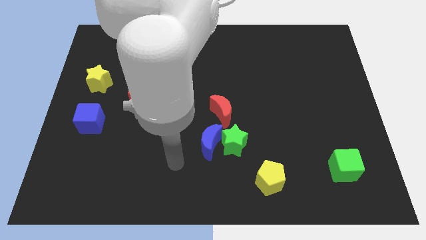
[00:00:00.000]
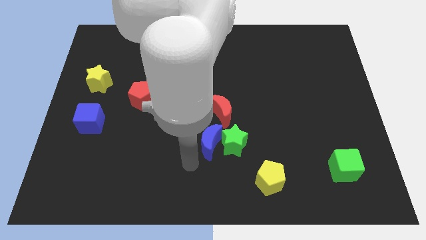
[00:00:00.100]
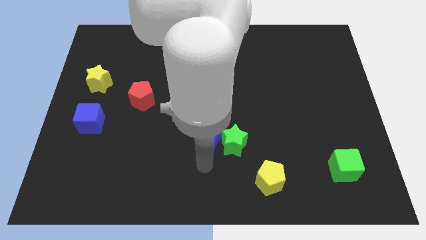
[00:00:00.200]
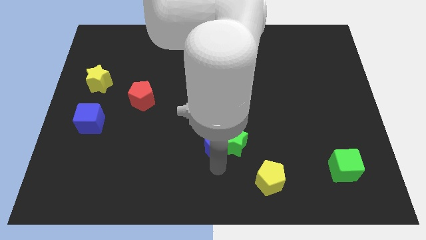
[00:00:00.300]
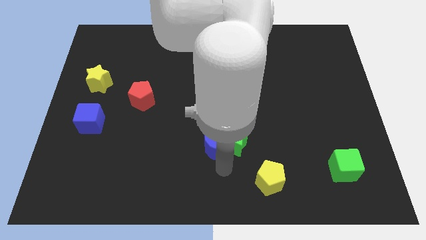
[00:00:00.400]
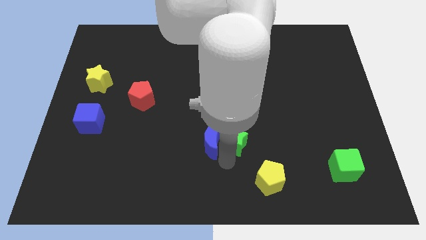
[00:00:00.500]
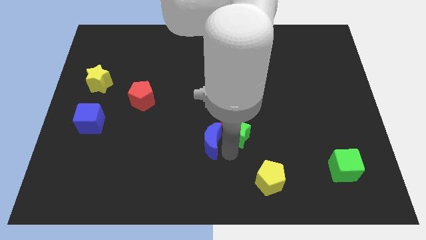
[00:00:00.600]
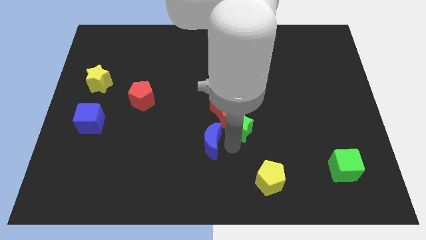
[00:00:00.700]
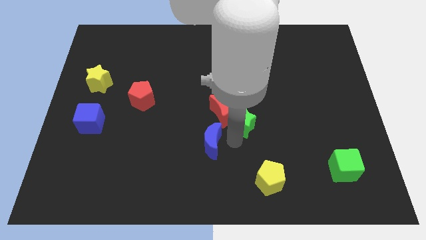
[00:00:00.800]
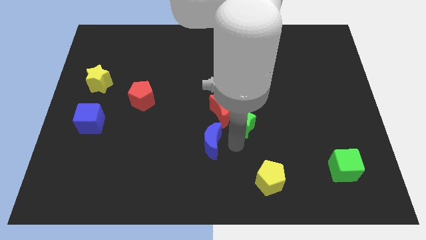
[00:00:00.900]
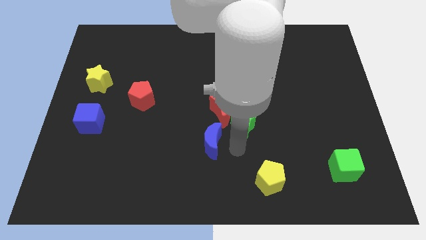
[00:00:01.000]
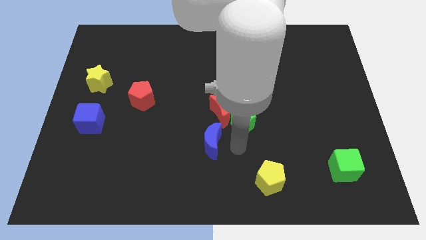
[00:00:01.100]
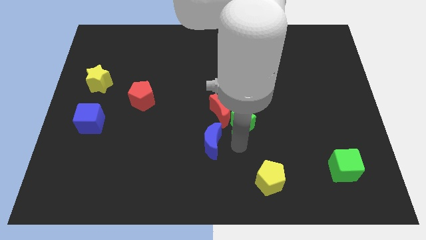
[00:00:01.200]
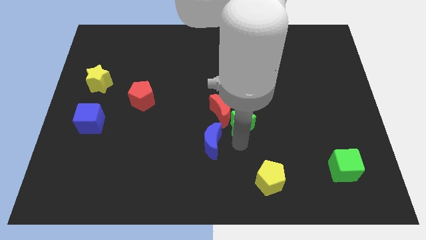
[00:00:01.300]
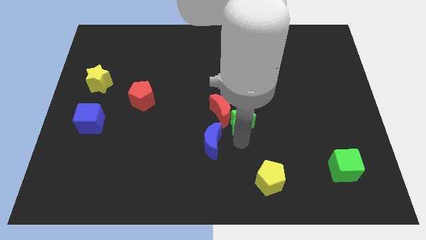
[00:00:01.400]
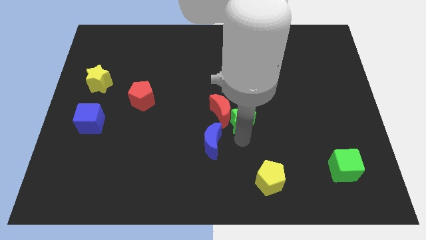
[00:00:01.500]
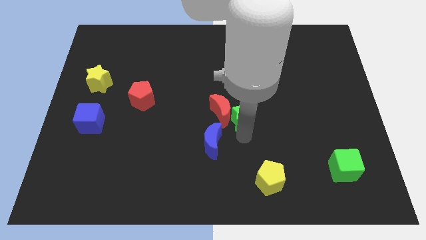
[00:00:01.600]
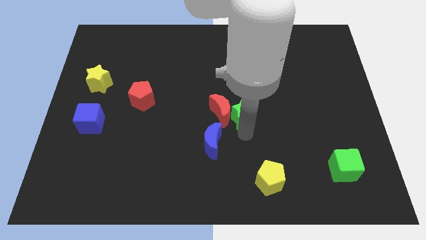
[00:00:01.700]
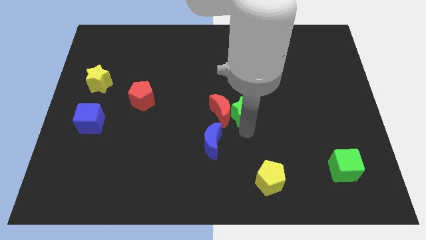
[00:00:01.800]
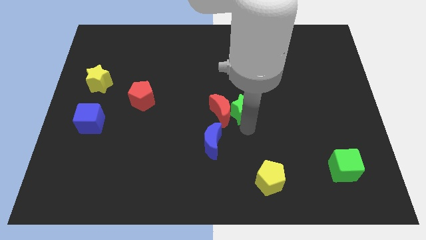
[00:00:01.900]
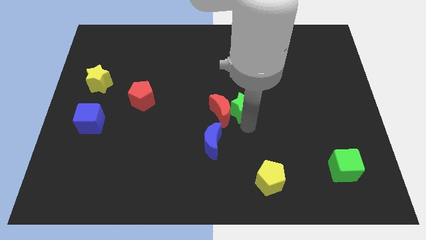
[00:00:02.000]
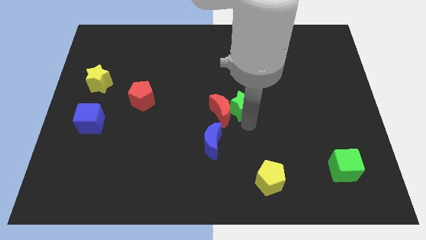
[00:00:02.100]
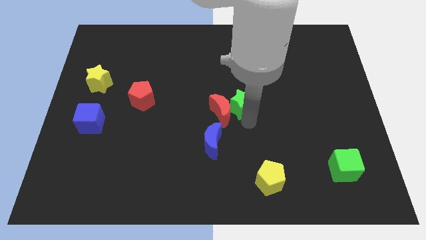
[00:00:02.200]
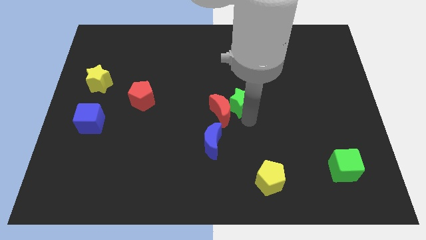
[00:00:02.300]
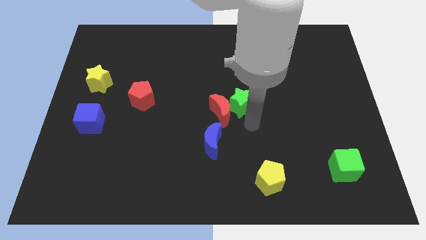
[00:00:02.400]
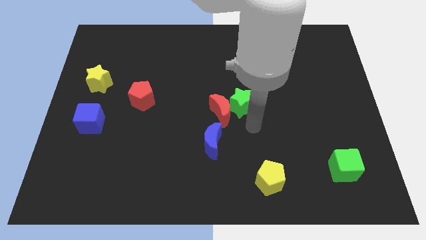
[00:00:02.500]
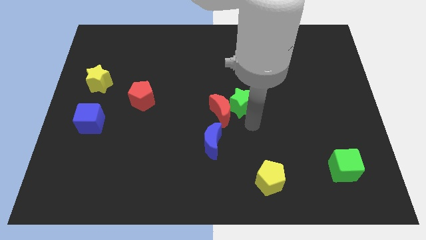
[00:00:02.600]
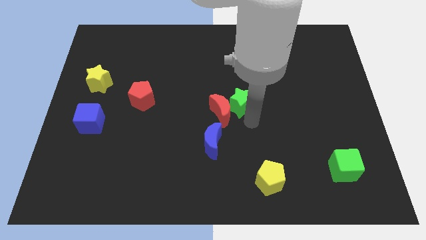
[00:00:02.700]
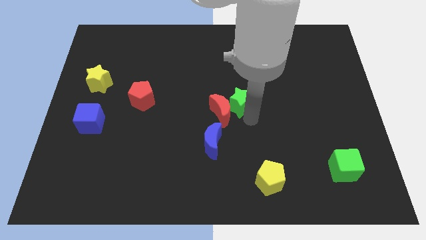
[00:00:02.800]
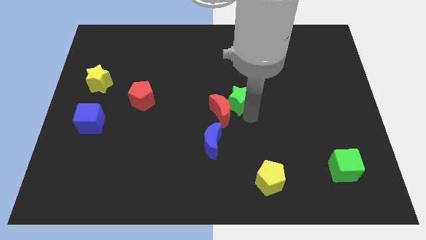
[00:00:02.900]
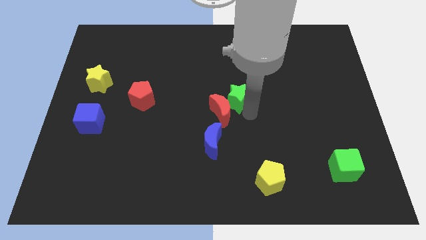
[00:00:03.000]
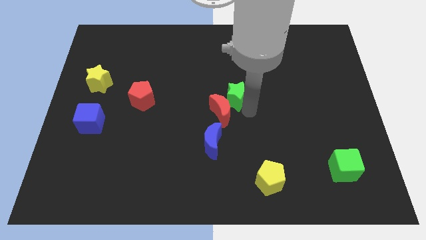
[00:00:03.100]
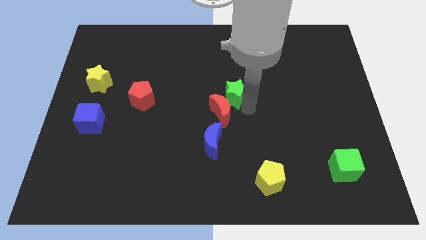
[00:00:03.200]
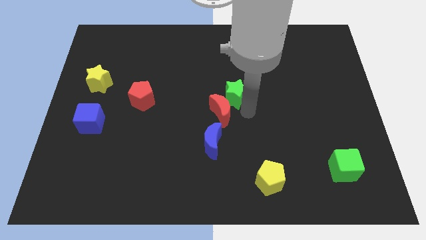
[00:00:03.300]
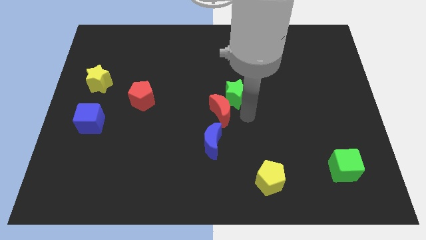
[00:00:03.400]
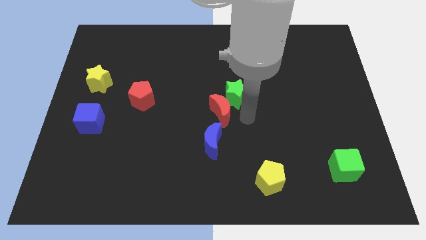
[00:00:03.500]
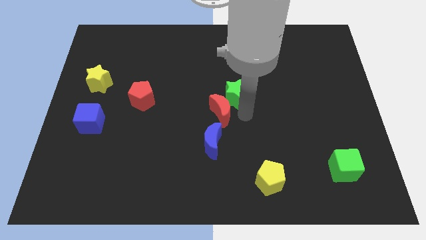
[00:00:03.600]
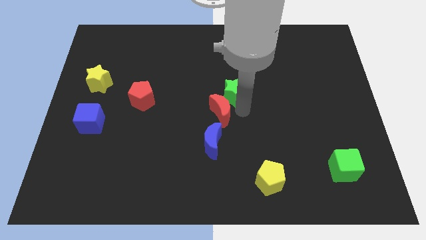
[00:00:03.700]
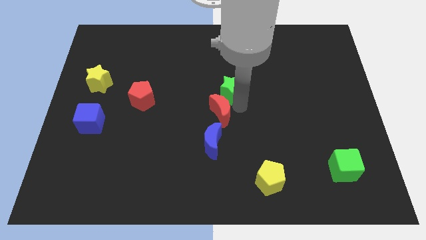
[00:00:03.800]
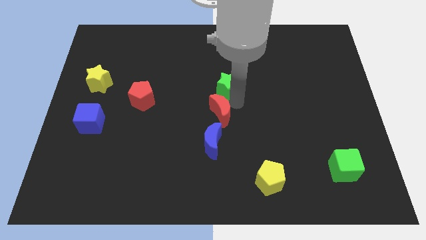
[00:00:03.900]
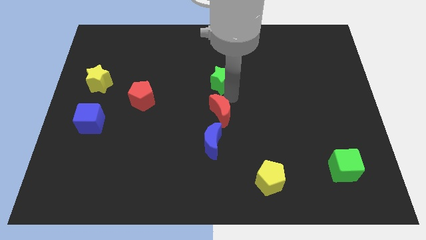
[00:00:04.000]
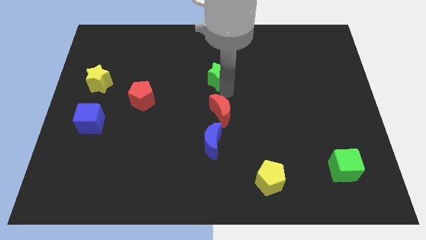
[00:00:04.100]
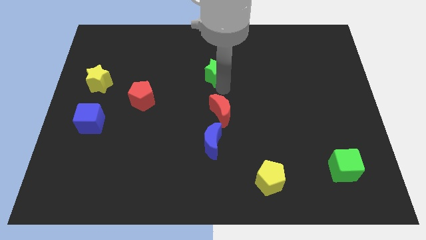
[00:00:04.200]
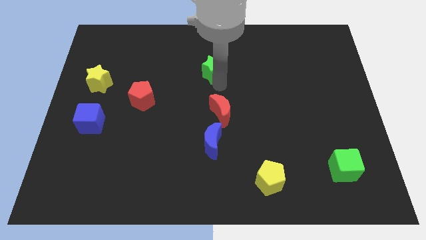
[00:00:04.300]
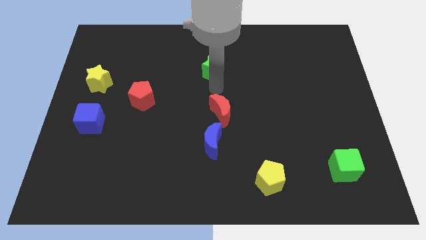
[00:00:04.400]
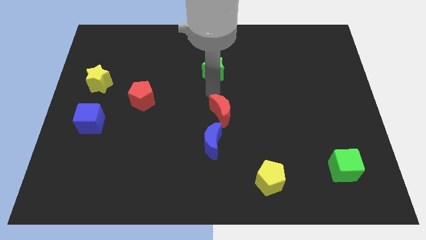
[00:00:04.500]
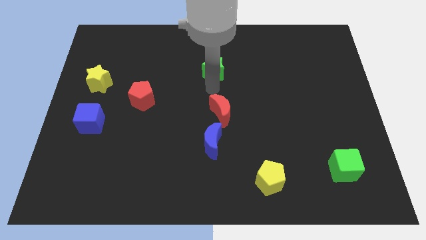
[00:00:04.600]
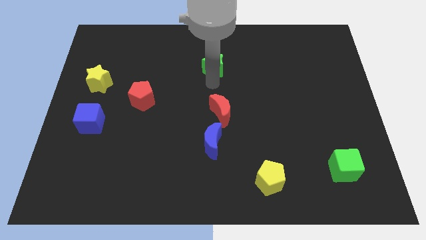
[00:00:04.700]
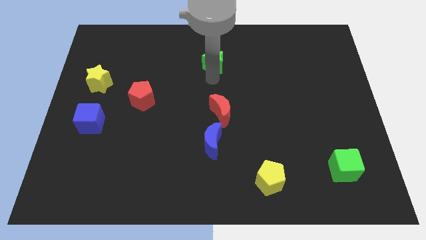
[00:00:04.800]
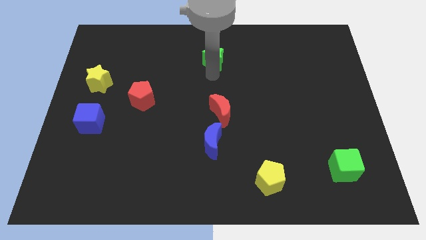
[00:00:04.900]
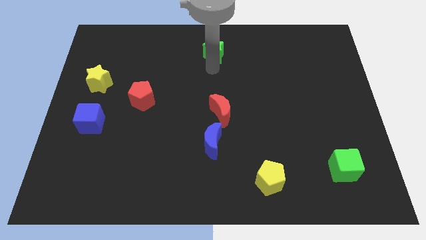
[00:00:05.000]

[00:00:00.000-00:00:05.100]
move the green star to the top side

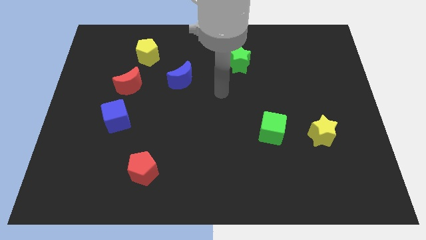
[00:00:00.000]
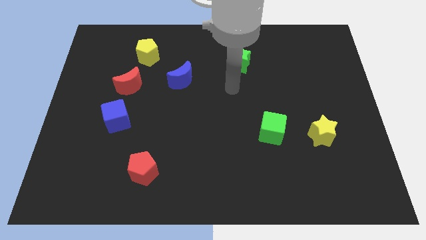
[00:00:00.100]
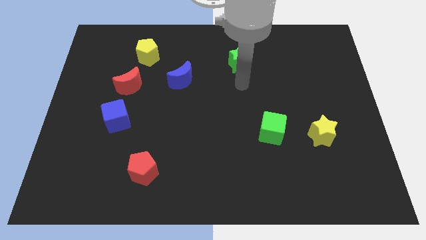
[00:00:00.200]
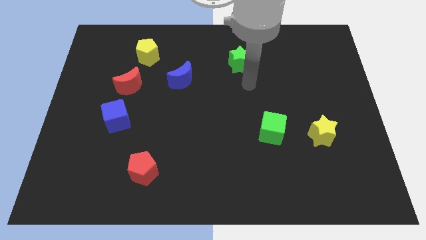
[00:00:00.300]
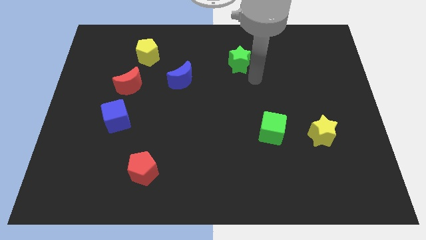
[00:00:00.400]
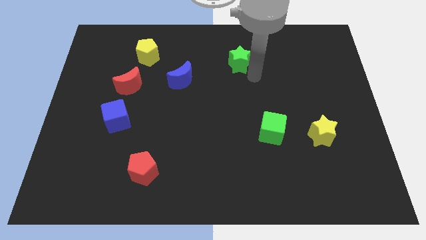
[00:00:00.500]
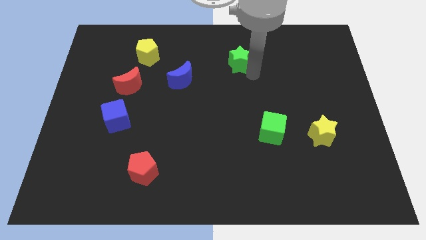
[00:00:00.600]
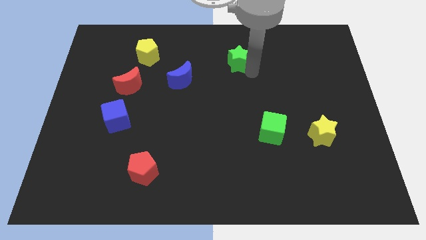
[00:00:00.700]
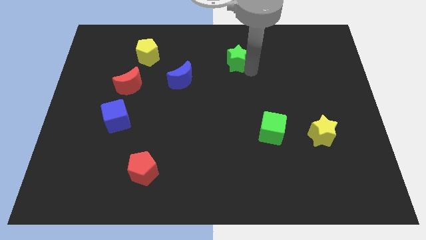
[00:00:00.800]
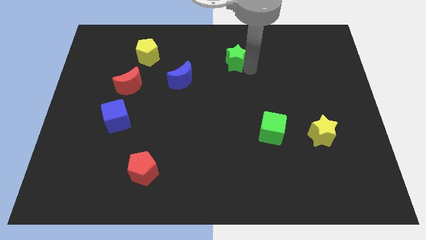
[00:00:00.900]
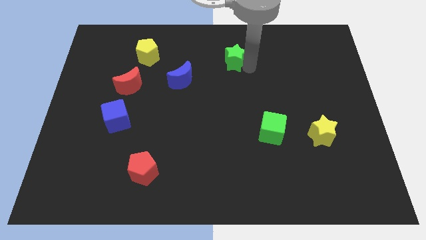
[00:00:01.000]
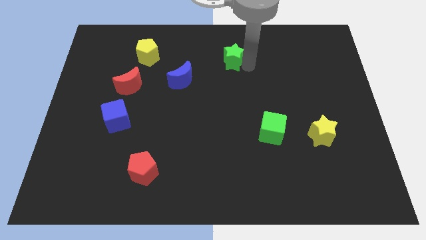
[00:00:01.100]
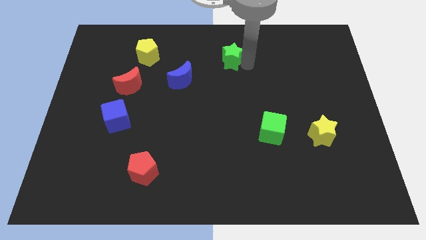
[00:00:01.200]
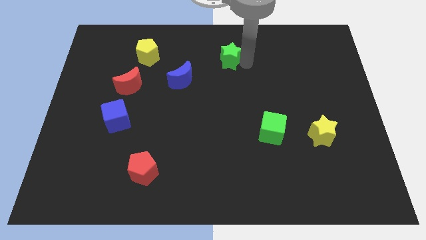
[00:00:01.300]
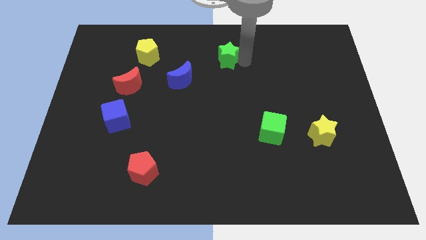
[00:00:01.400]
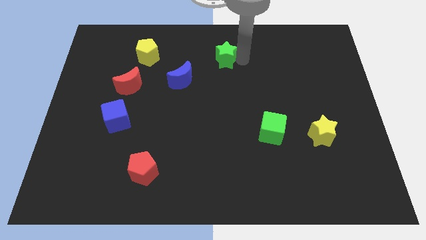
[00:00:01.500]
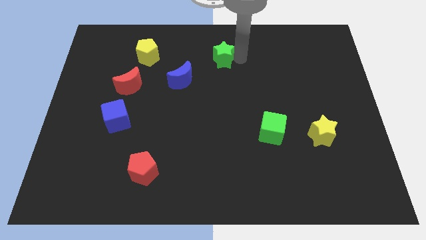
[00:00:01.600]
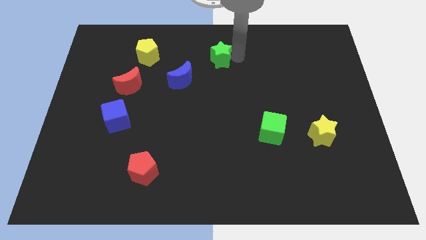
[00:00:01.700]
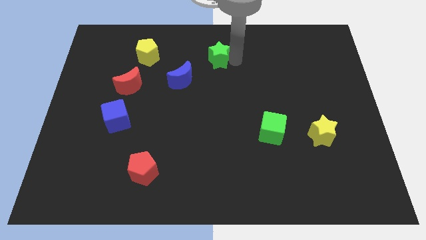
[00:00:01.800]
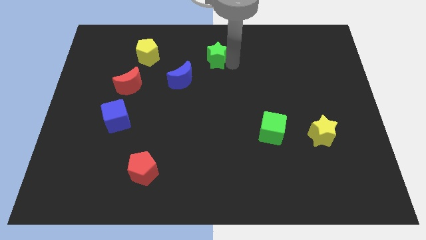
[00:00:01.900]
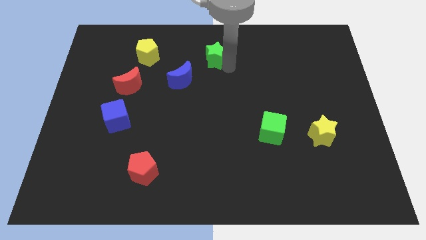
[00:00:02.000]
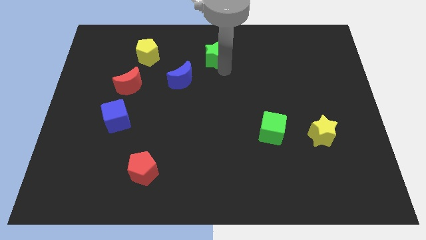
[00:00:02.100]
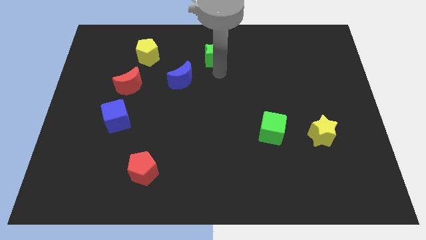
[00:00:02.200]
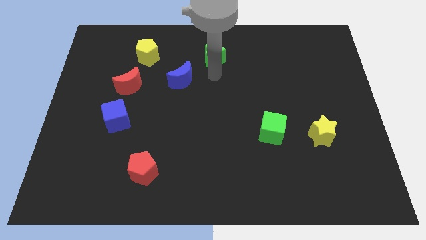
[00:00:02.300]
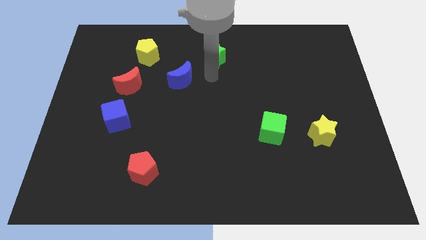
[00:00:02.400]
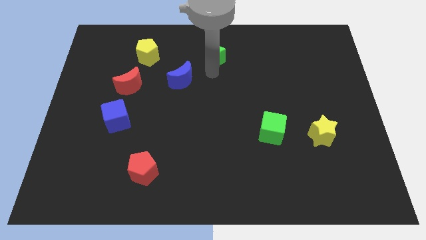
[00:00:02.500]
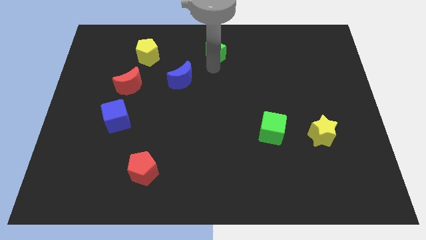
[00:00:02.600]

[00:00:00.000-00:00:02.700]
slide the green star to the top
